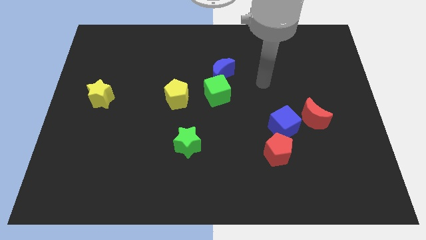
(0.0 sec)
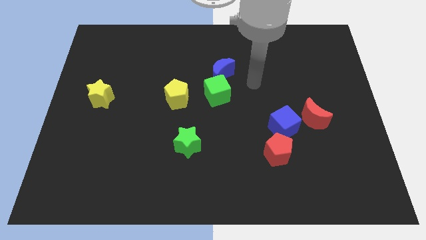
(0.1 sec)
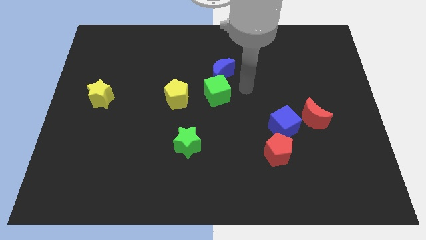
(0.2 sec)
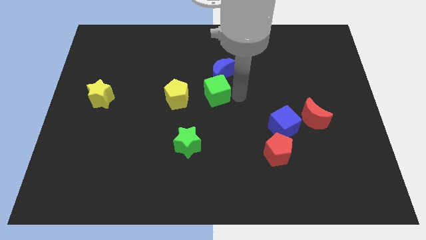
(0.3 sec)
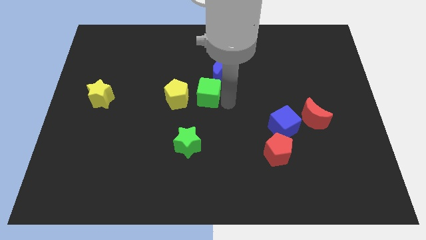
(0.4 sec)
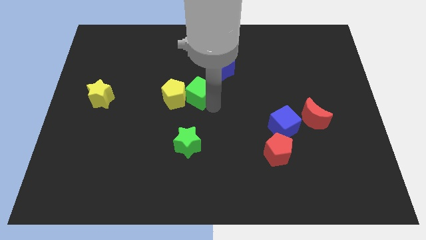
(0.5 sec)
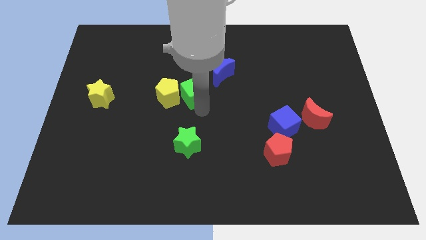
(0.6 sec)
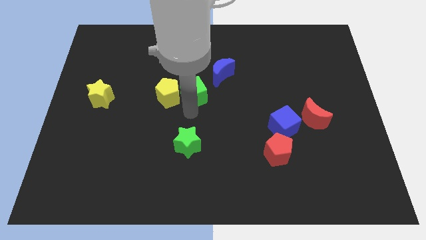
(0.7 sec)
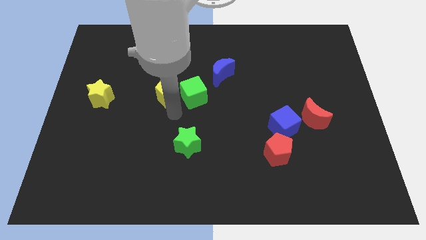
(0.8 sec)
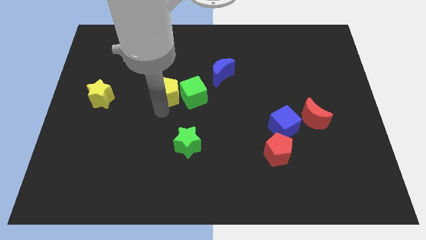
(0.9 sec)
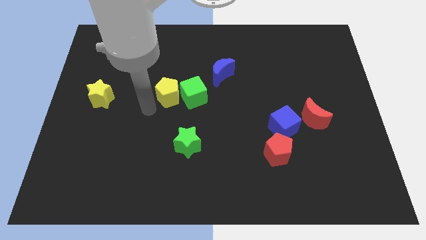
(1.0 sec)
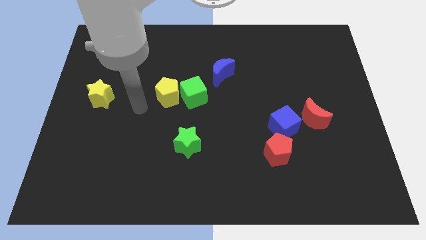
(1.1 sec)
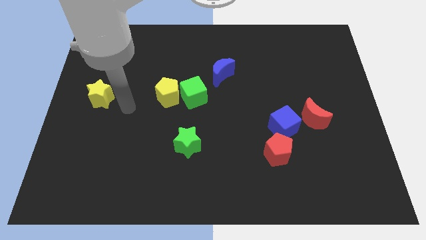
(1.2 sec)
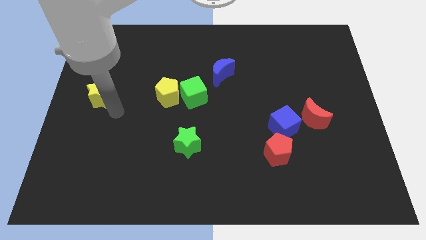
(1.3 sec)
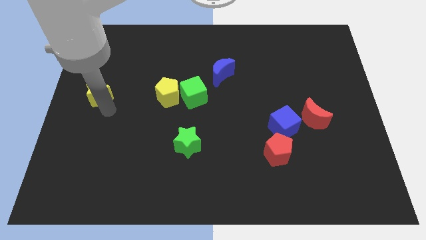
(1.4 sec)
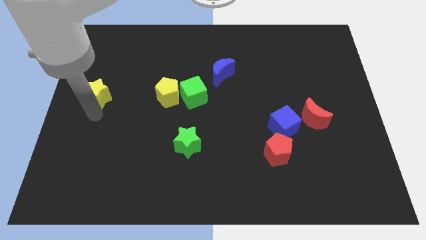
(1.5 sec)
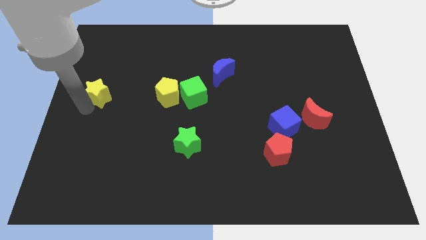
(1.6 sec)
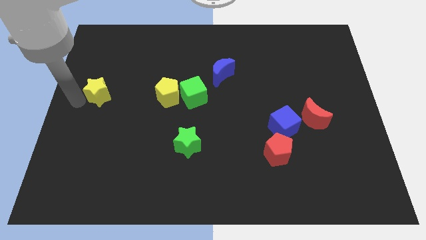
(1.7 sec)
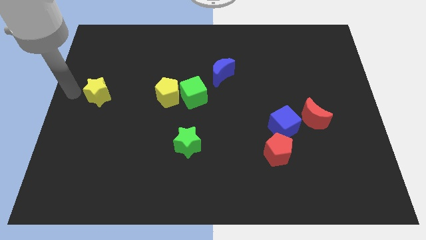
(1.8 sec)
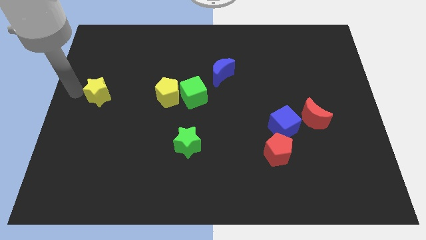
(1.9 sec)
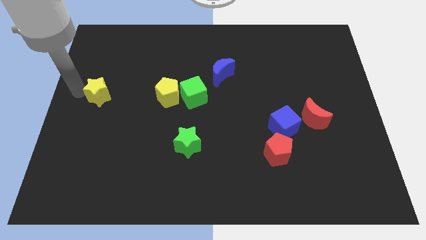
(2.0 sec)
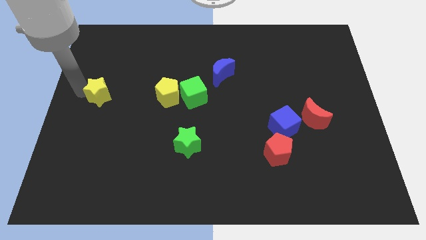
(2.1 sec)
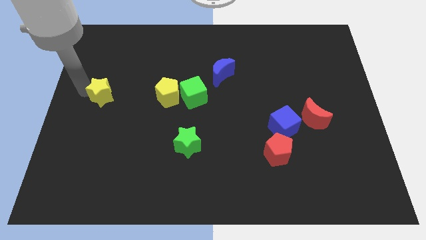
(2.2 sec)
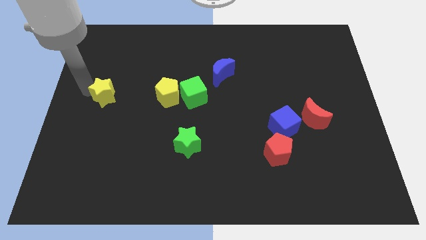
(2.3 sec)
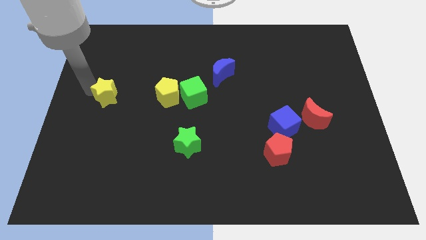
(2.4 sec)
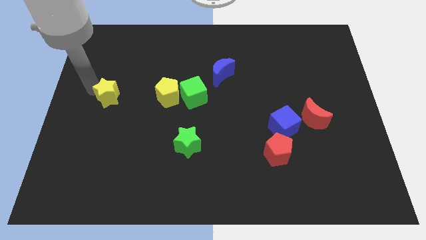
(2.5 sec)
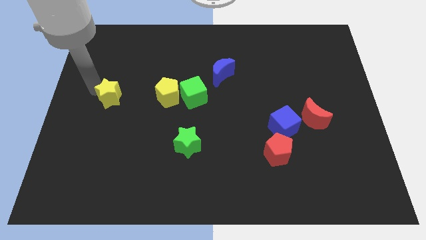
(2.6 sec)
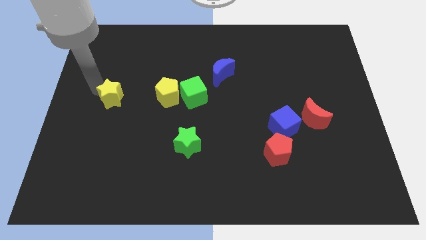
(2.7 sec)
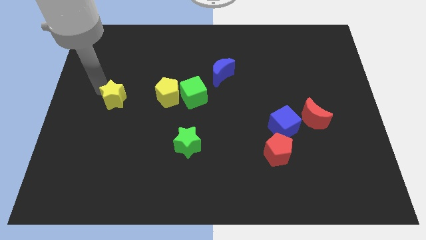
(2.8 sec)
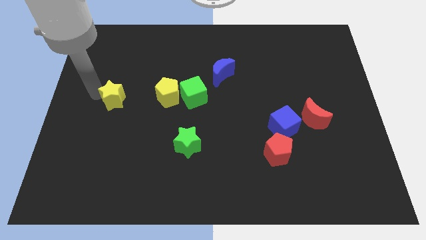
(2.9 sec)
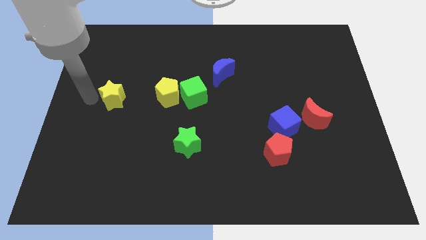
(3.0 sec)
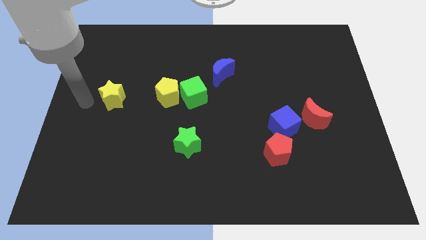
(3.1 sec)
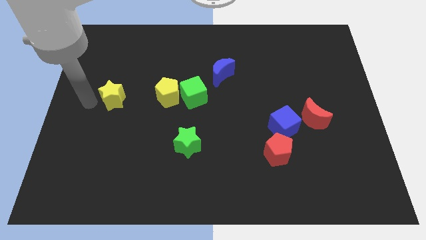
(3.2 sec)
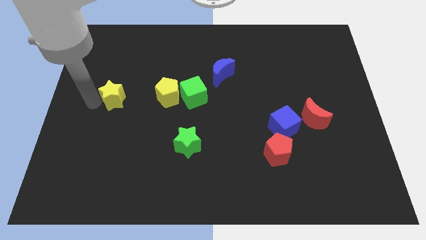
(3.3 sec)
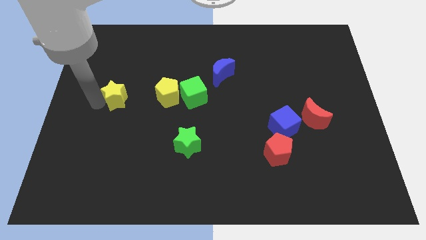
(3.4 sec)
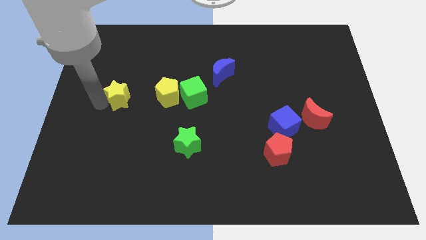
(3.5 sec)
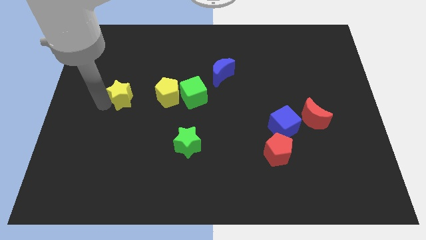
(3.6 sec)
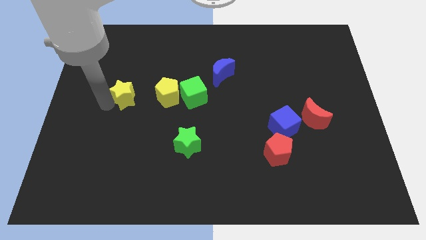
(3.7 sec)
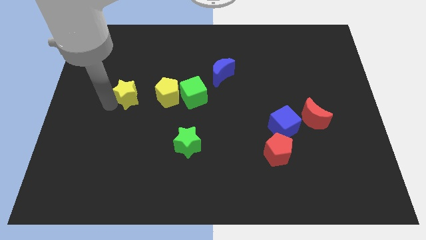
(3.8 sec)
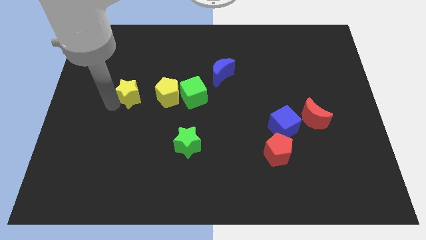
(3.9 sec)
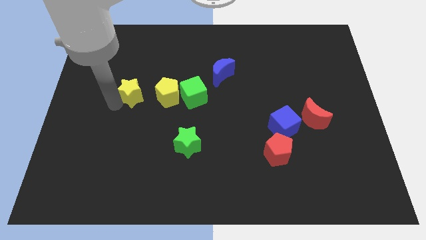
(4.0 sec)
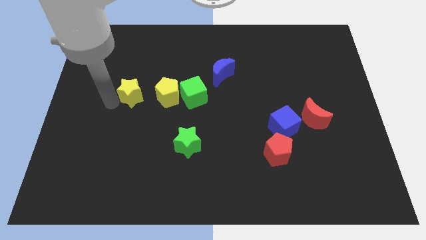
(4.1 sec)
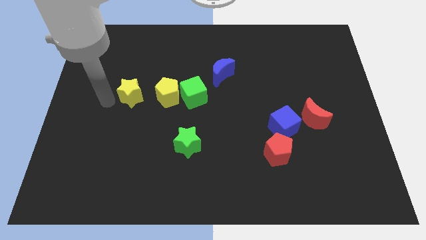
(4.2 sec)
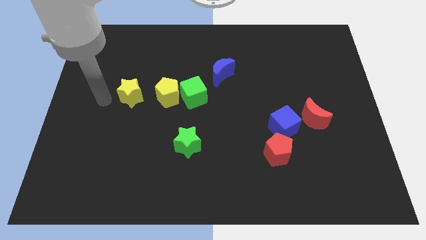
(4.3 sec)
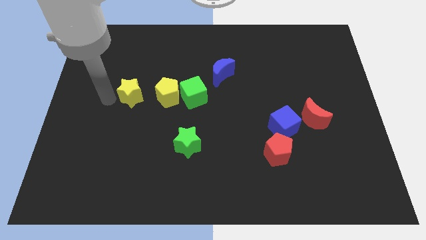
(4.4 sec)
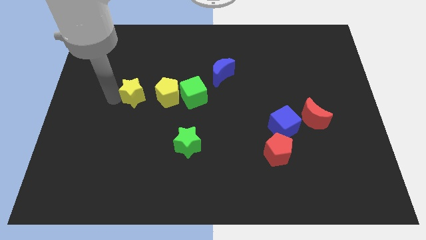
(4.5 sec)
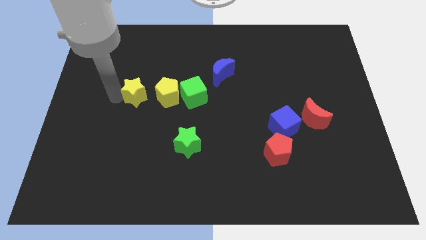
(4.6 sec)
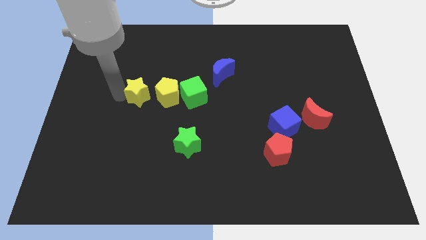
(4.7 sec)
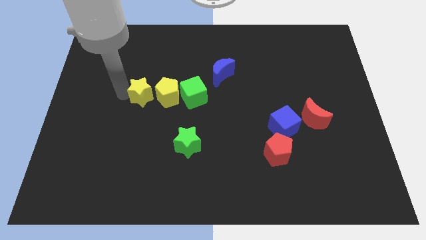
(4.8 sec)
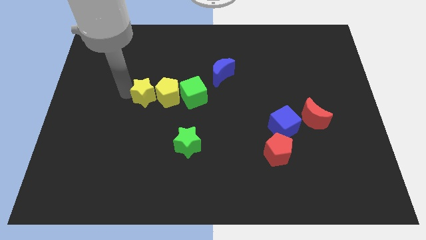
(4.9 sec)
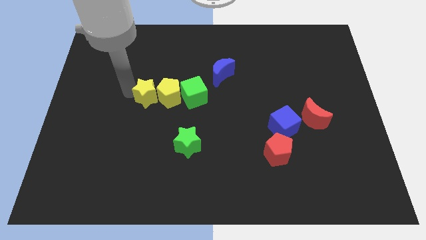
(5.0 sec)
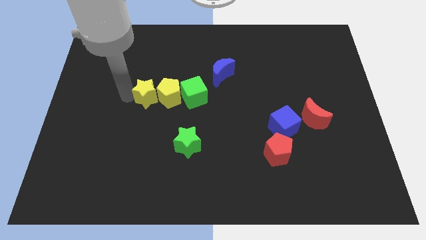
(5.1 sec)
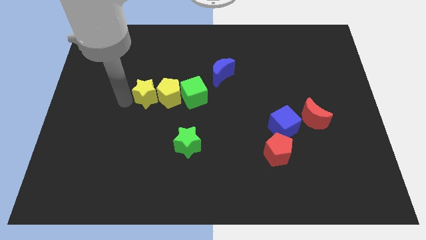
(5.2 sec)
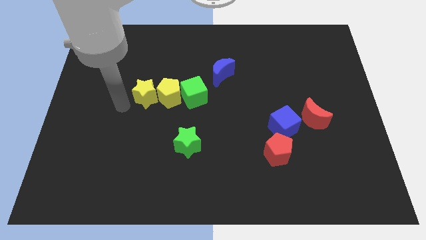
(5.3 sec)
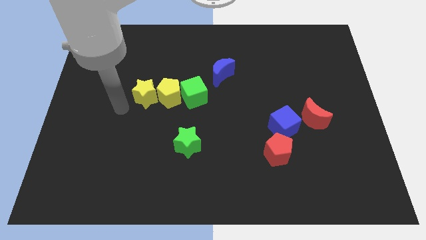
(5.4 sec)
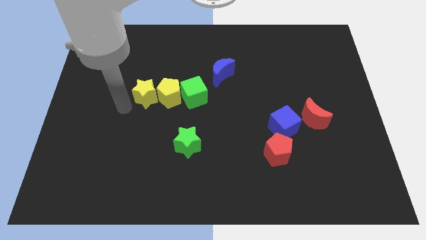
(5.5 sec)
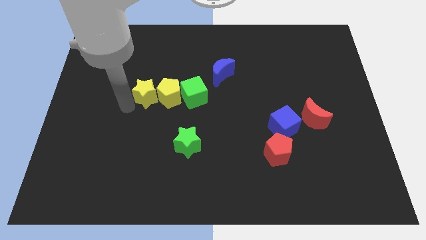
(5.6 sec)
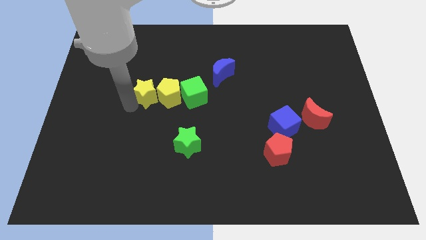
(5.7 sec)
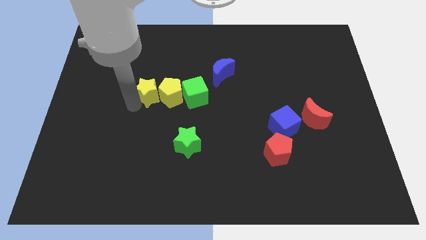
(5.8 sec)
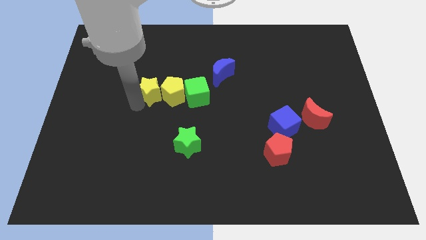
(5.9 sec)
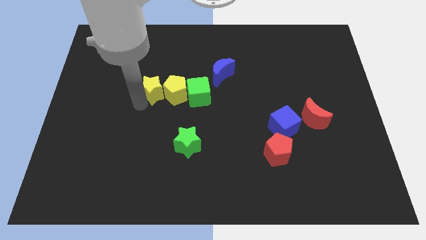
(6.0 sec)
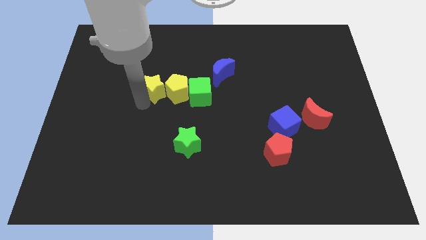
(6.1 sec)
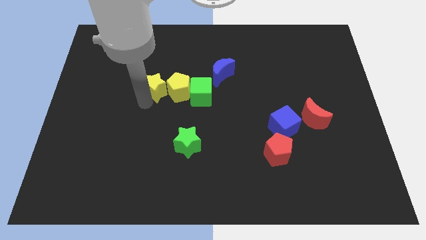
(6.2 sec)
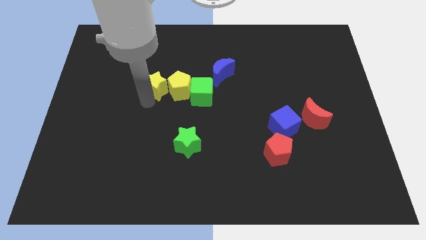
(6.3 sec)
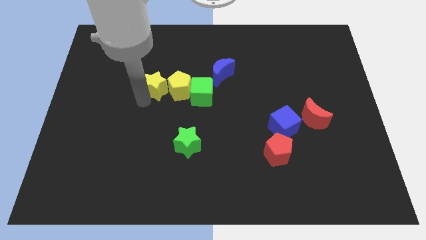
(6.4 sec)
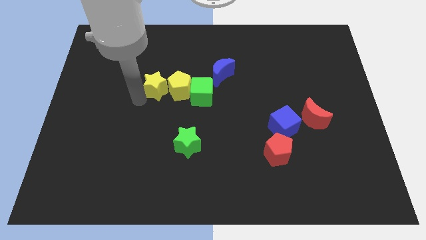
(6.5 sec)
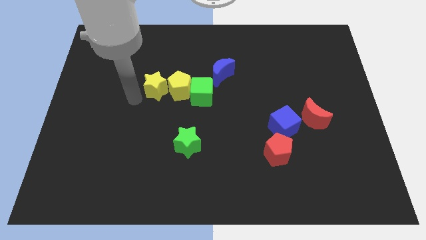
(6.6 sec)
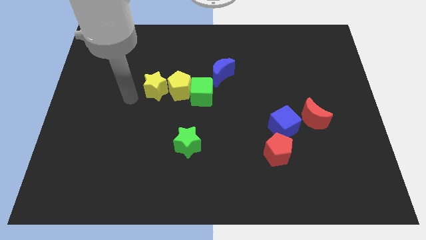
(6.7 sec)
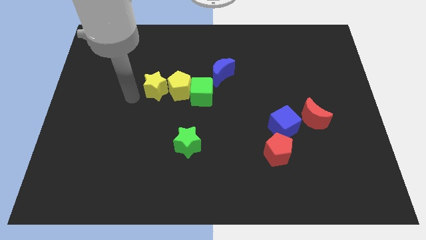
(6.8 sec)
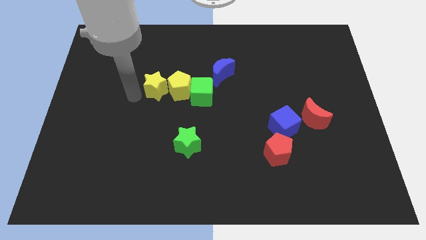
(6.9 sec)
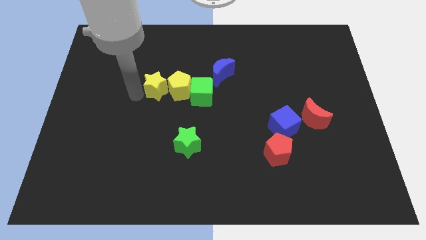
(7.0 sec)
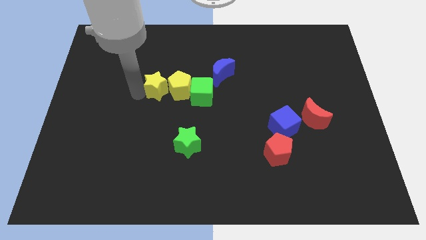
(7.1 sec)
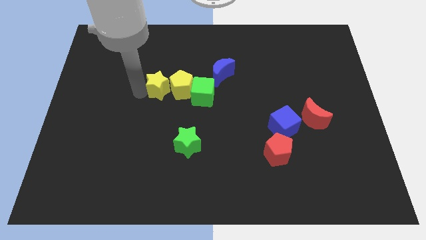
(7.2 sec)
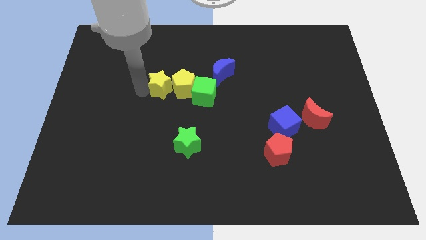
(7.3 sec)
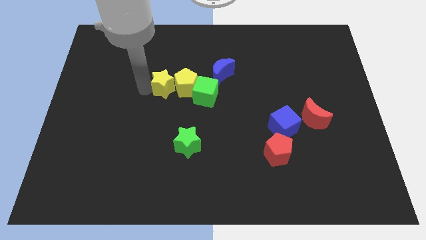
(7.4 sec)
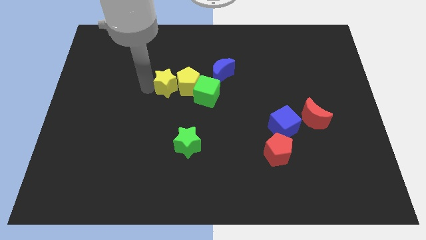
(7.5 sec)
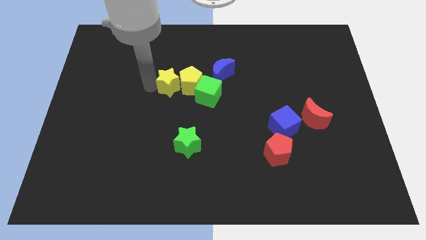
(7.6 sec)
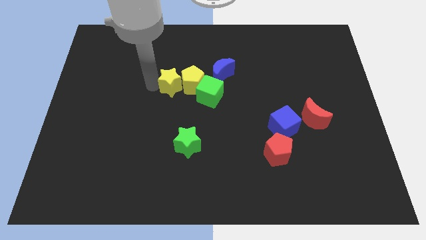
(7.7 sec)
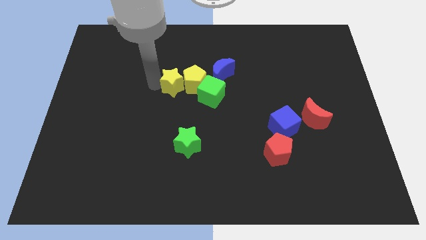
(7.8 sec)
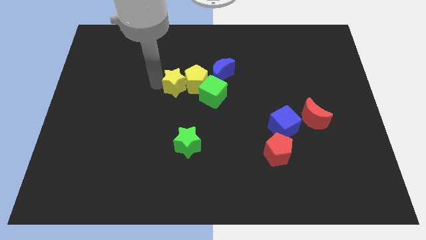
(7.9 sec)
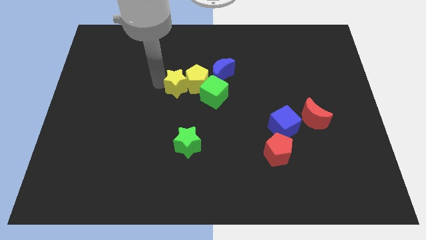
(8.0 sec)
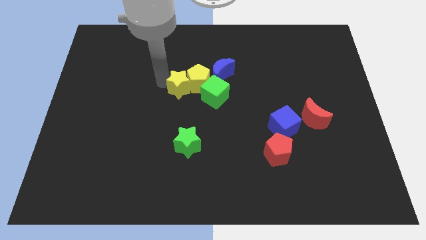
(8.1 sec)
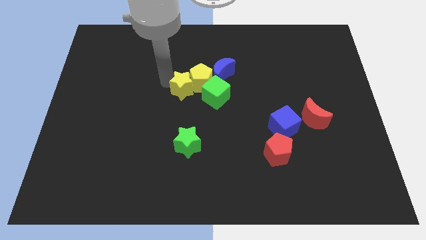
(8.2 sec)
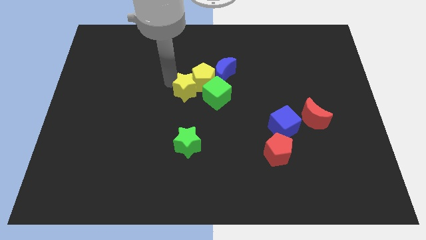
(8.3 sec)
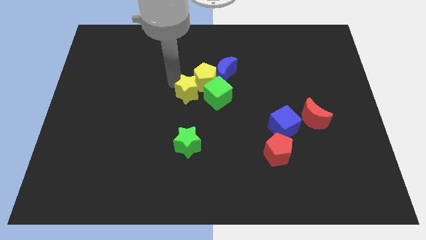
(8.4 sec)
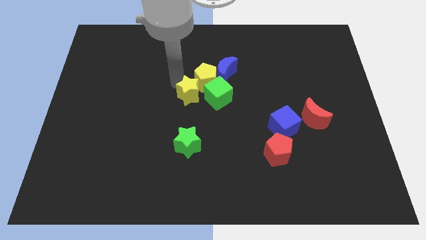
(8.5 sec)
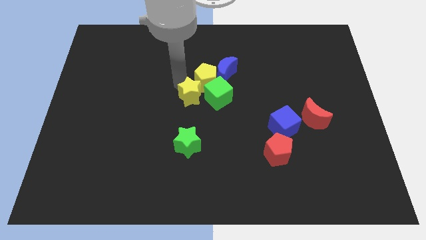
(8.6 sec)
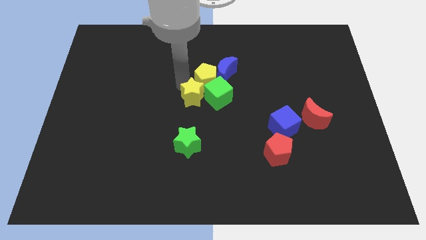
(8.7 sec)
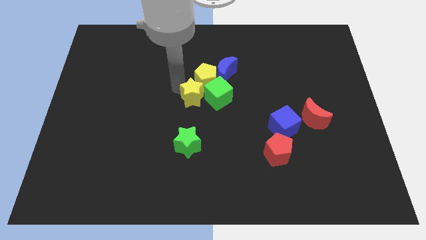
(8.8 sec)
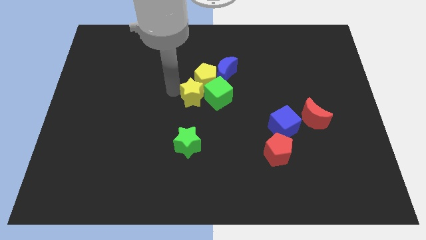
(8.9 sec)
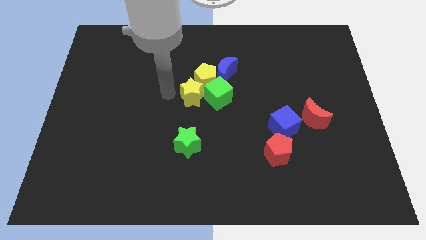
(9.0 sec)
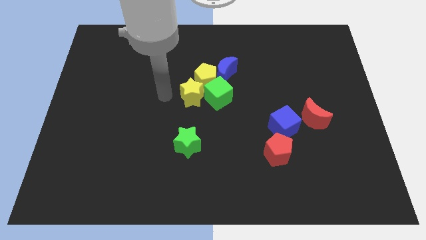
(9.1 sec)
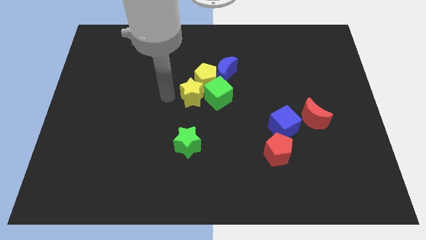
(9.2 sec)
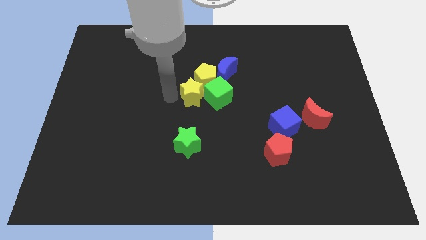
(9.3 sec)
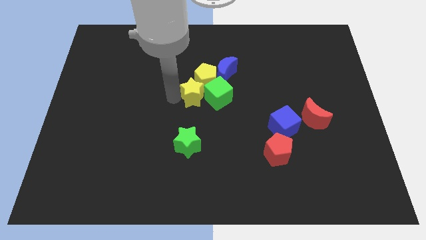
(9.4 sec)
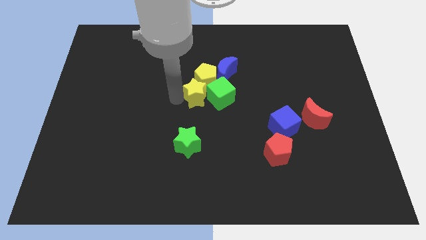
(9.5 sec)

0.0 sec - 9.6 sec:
slide the yellow star close to the green cube
